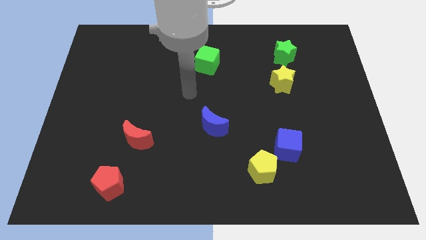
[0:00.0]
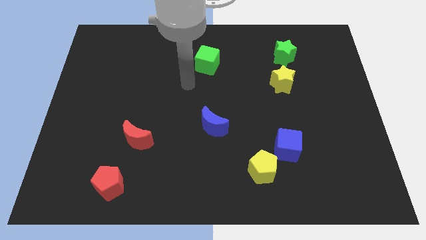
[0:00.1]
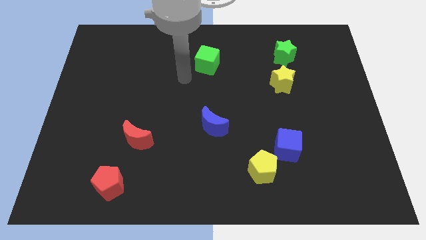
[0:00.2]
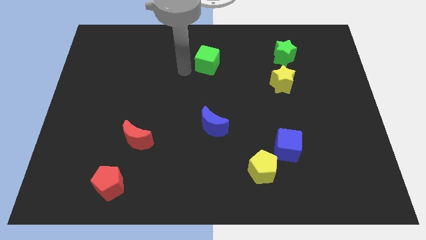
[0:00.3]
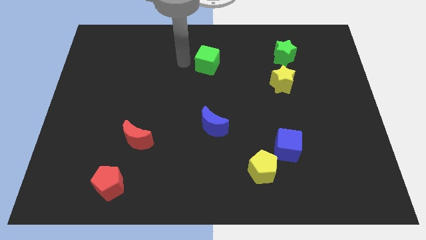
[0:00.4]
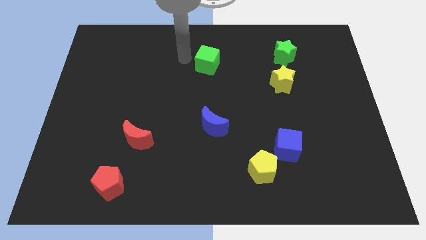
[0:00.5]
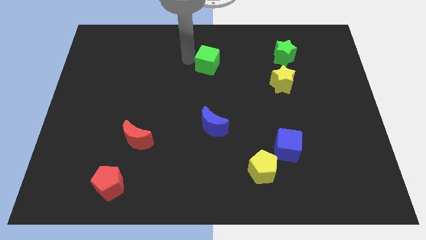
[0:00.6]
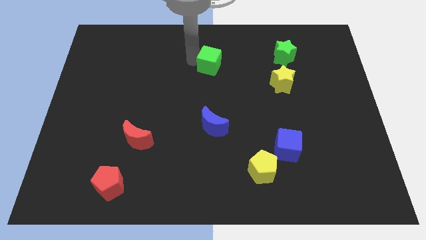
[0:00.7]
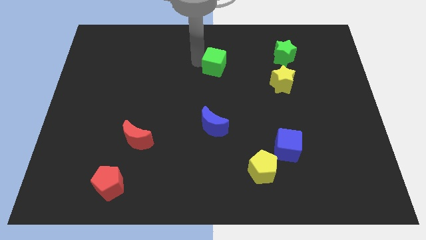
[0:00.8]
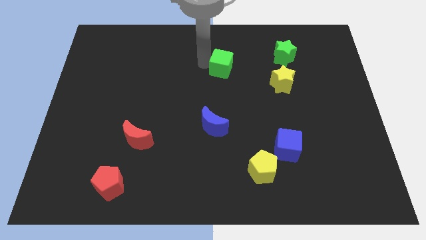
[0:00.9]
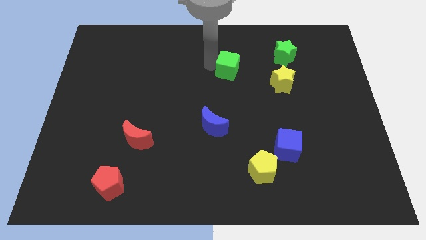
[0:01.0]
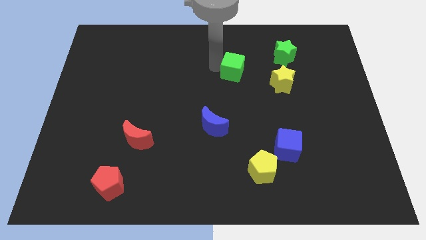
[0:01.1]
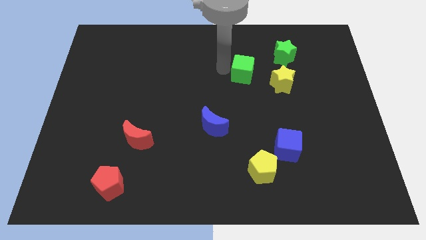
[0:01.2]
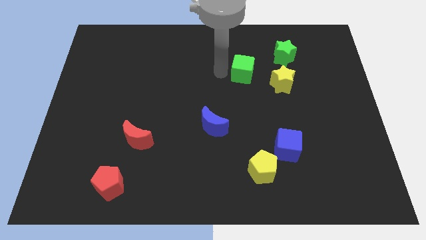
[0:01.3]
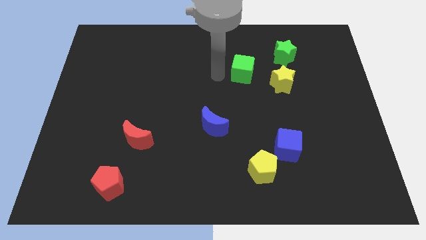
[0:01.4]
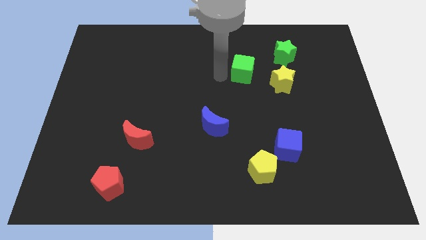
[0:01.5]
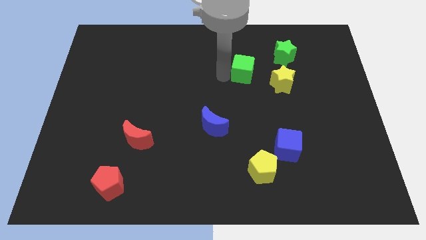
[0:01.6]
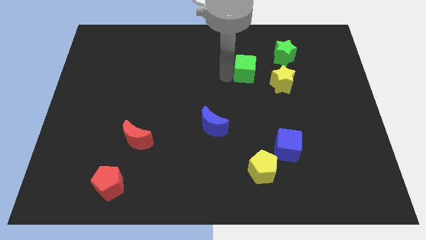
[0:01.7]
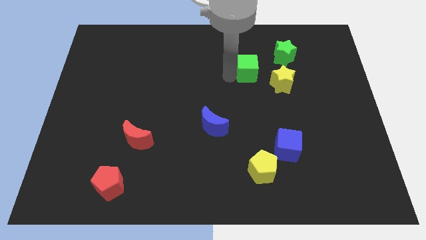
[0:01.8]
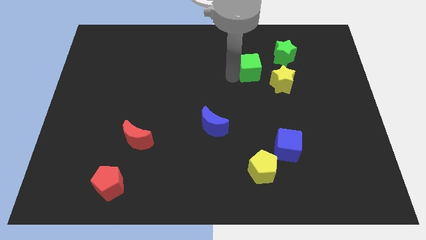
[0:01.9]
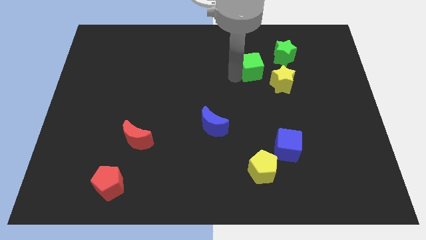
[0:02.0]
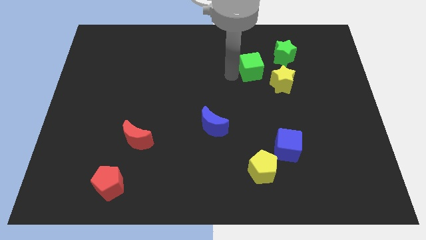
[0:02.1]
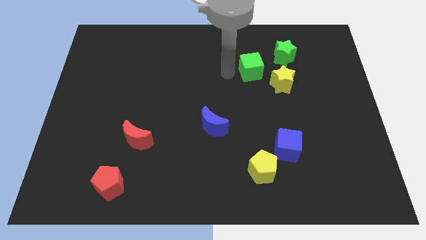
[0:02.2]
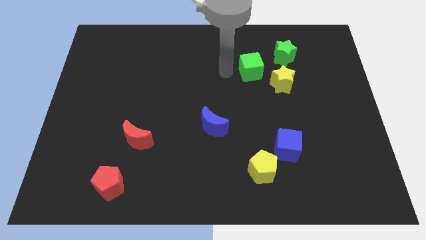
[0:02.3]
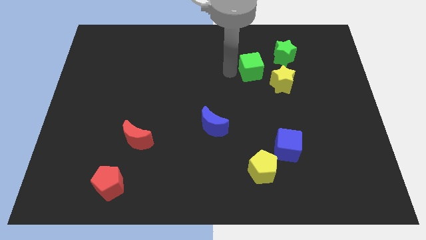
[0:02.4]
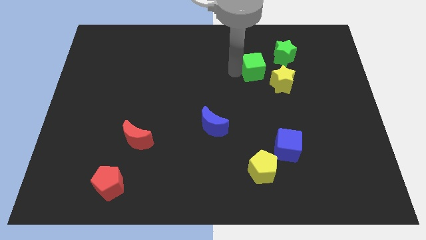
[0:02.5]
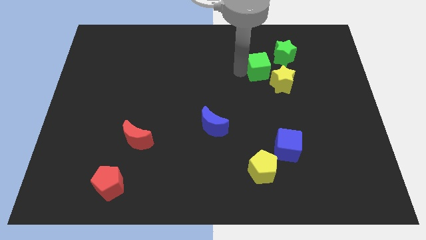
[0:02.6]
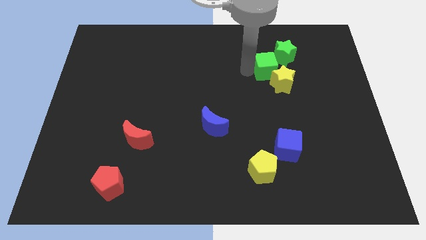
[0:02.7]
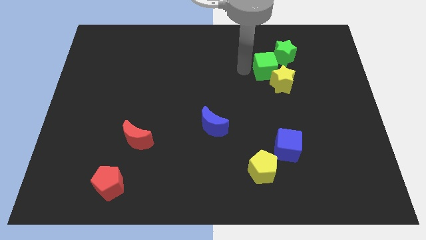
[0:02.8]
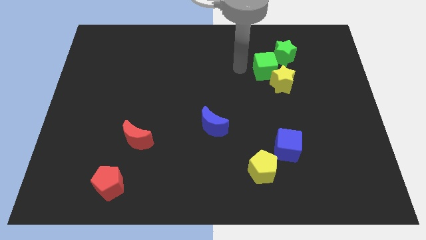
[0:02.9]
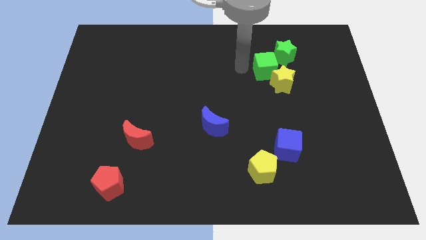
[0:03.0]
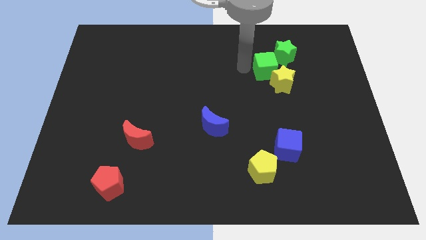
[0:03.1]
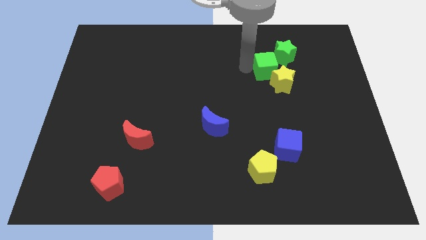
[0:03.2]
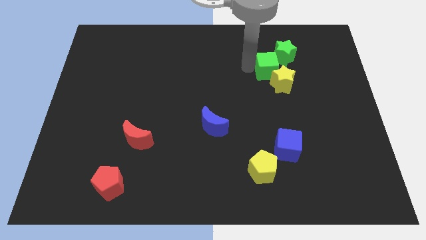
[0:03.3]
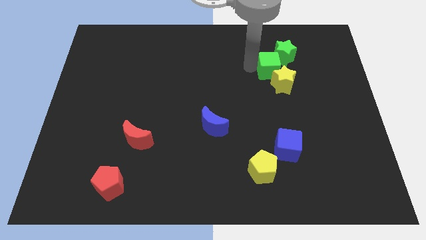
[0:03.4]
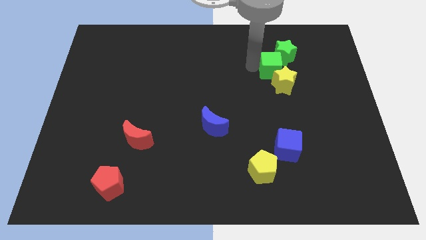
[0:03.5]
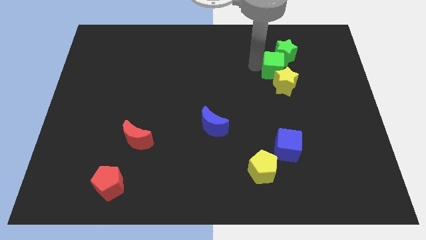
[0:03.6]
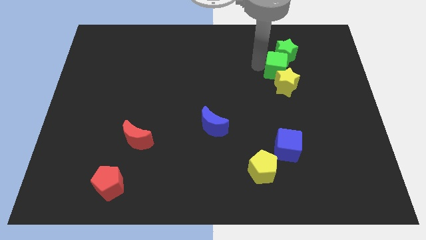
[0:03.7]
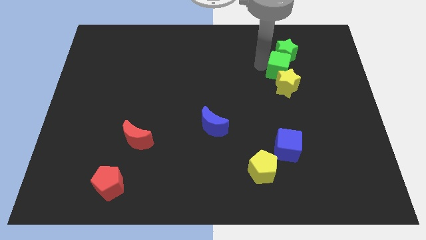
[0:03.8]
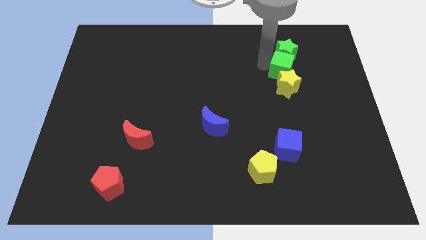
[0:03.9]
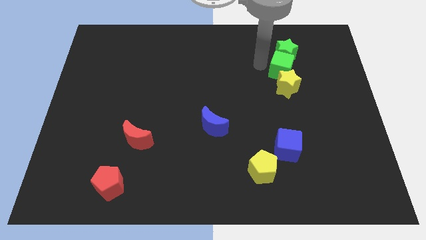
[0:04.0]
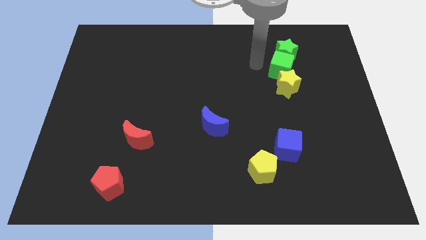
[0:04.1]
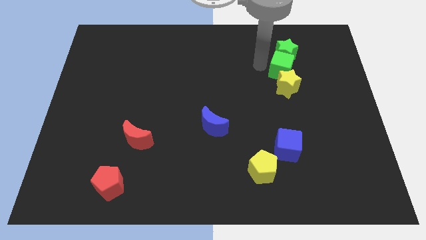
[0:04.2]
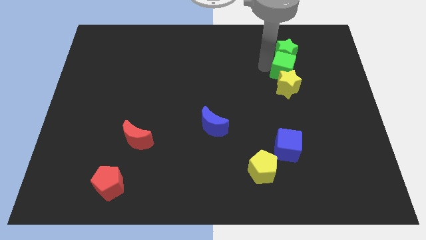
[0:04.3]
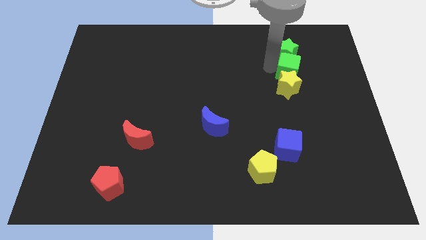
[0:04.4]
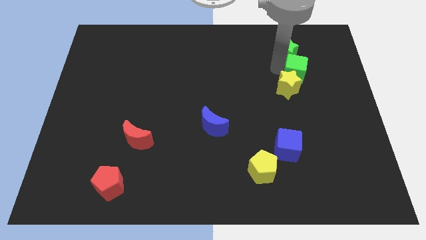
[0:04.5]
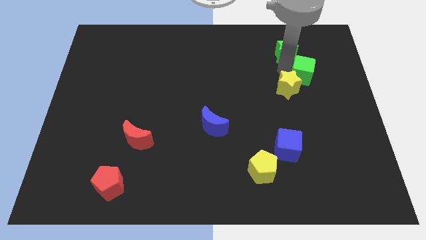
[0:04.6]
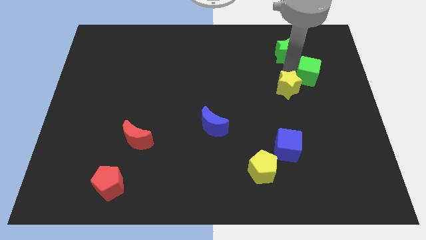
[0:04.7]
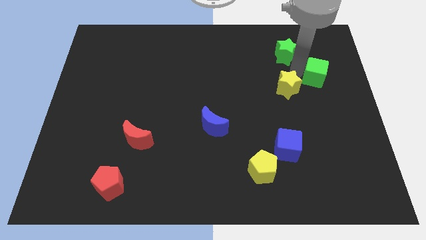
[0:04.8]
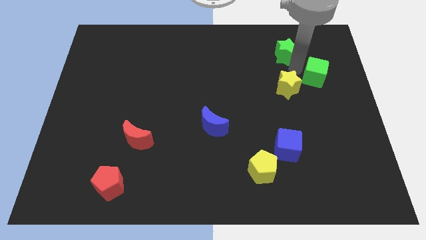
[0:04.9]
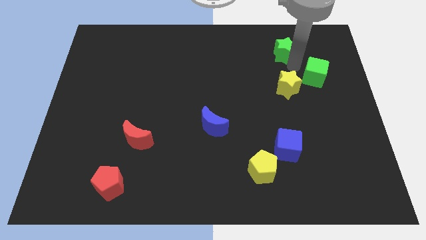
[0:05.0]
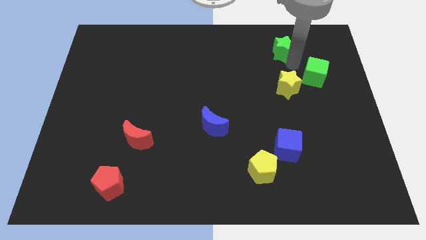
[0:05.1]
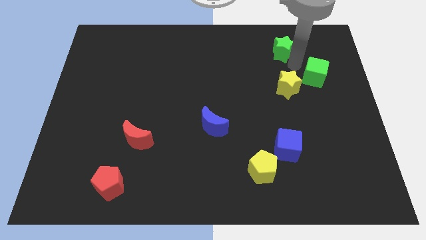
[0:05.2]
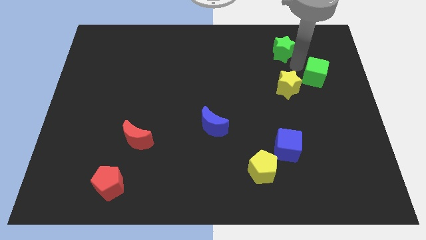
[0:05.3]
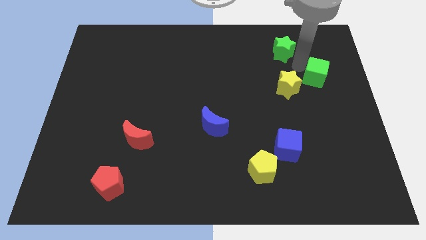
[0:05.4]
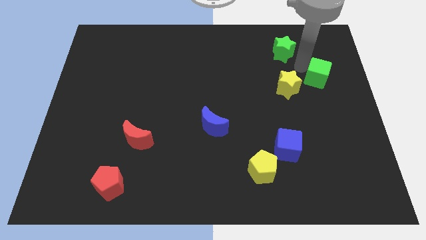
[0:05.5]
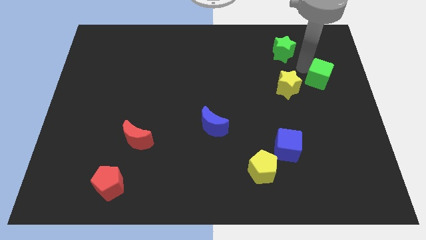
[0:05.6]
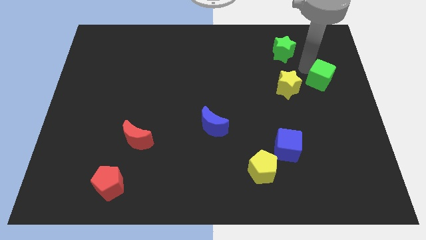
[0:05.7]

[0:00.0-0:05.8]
slide the green cube to the center right
